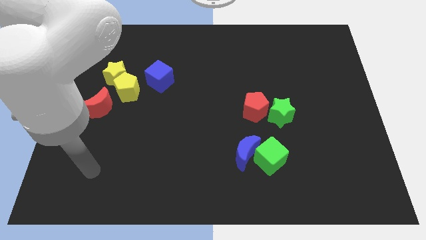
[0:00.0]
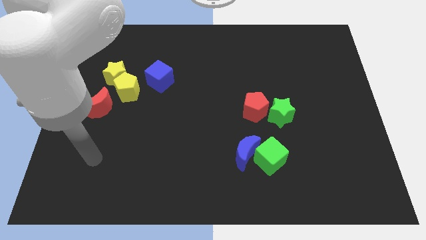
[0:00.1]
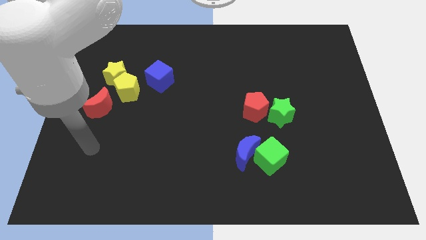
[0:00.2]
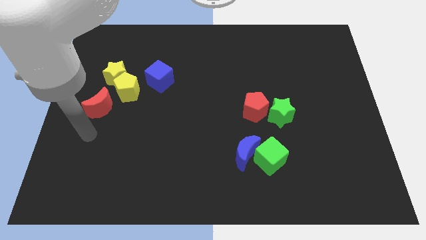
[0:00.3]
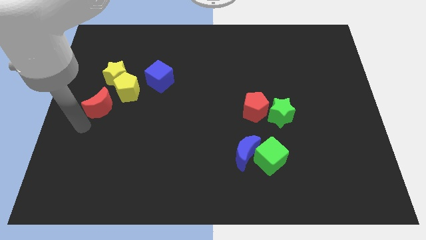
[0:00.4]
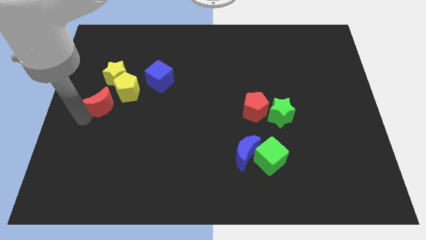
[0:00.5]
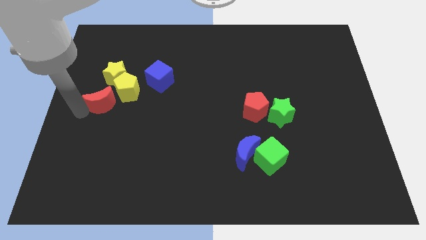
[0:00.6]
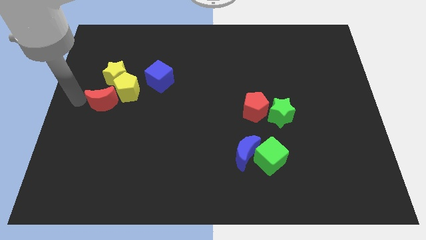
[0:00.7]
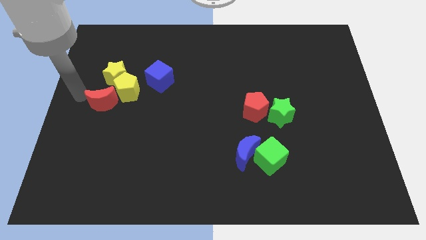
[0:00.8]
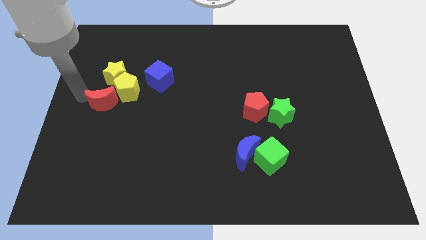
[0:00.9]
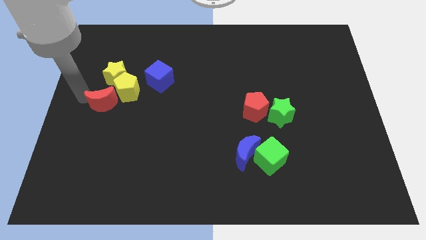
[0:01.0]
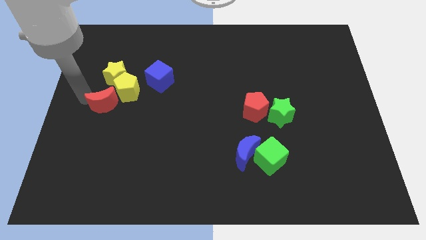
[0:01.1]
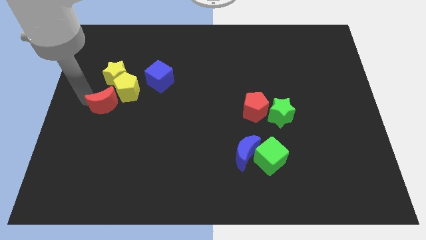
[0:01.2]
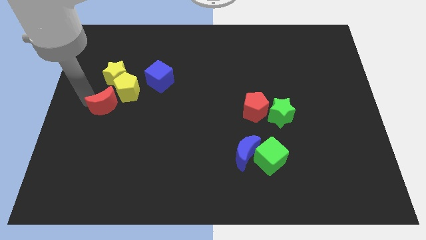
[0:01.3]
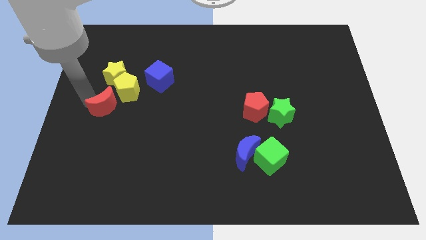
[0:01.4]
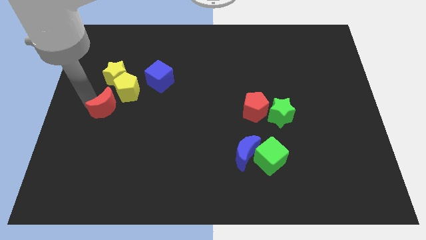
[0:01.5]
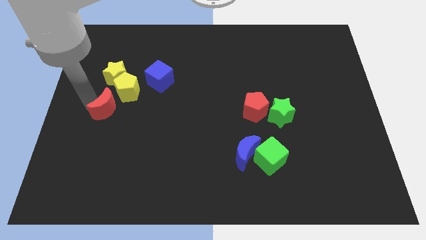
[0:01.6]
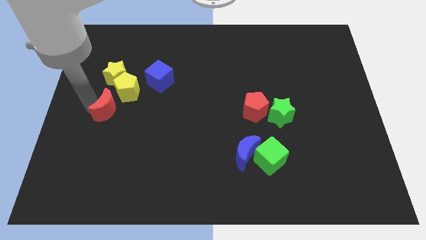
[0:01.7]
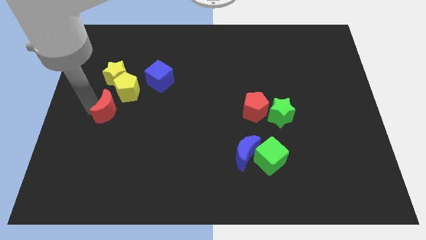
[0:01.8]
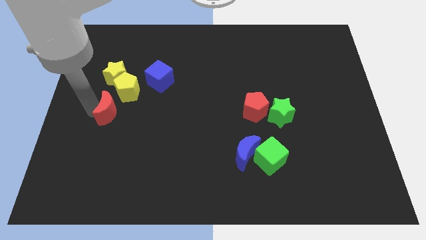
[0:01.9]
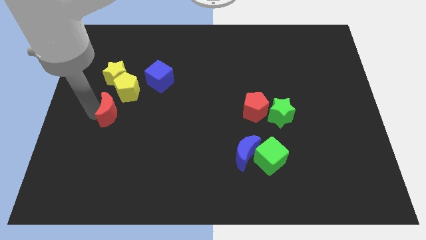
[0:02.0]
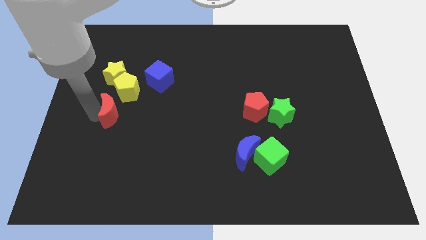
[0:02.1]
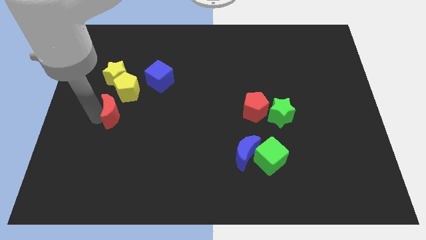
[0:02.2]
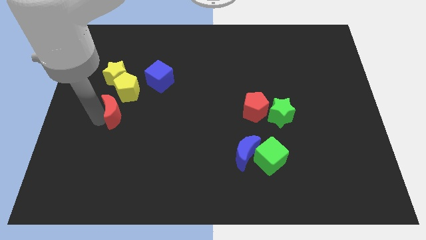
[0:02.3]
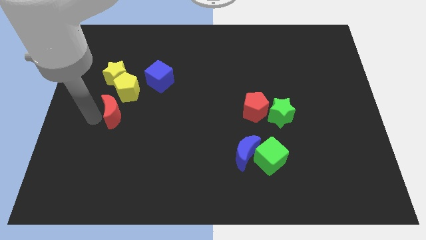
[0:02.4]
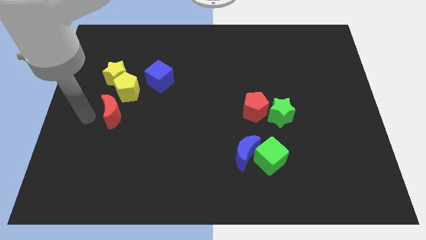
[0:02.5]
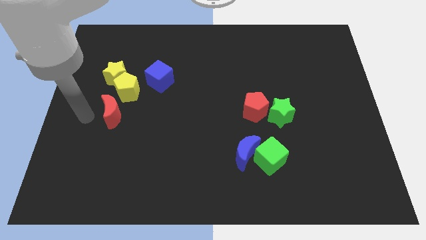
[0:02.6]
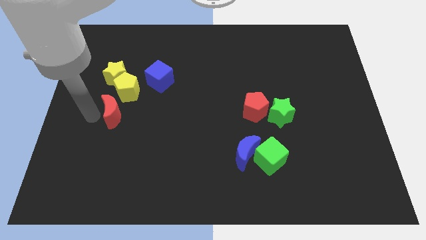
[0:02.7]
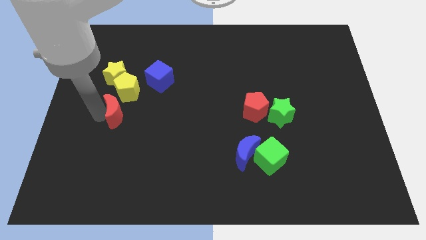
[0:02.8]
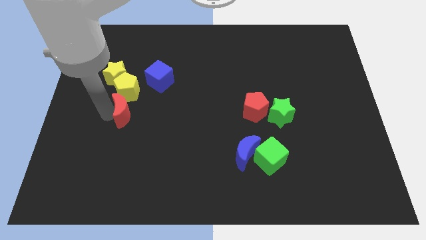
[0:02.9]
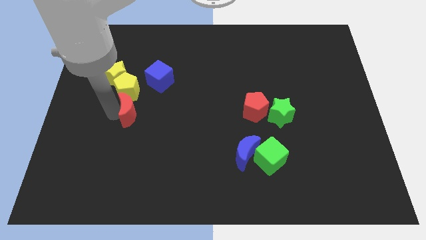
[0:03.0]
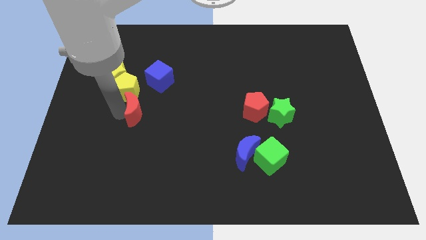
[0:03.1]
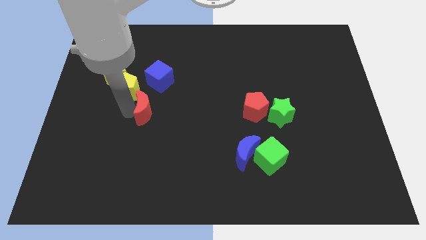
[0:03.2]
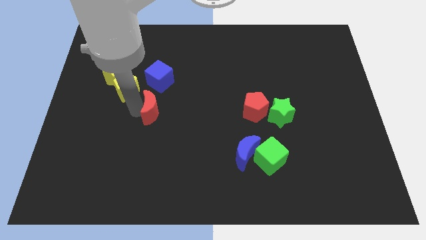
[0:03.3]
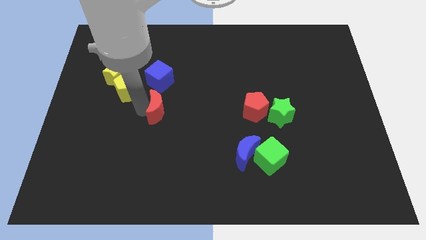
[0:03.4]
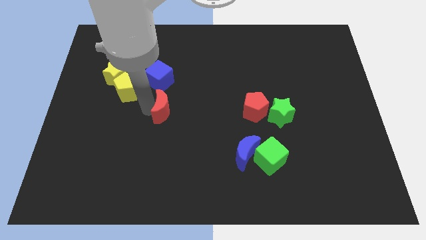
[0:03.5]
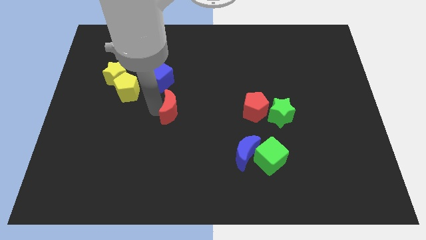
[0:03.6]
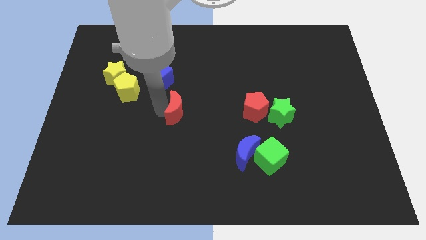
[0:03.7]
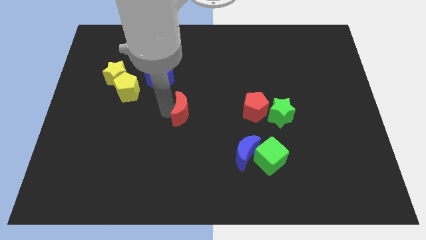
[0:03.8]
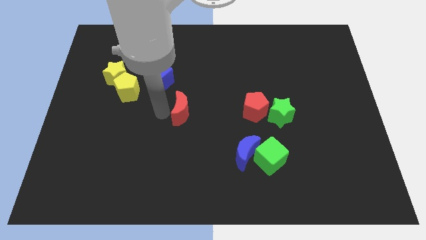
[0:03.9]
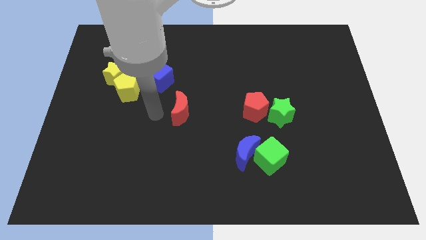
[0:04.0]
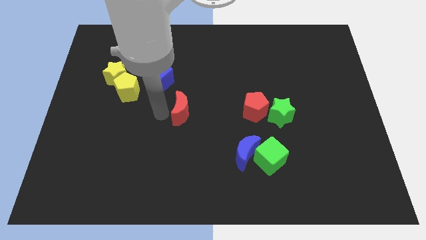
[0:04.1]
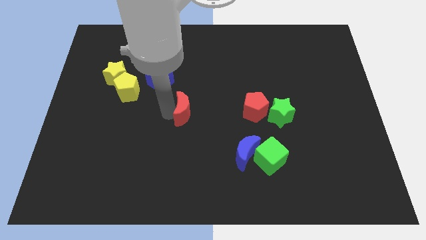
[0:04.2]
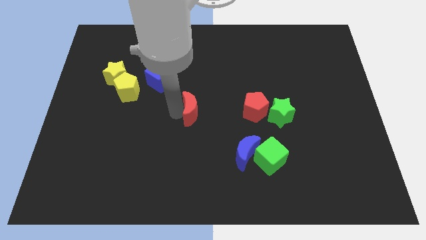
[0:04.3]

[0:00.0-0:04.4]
put the red moon to the left side of the red pentagon

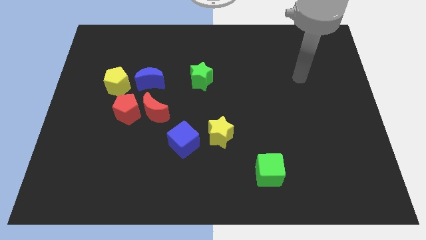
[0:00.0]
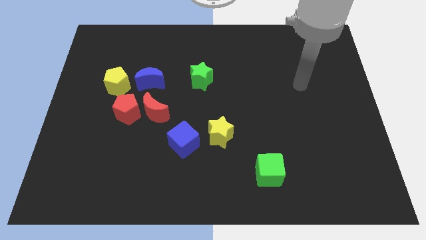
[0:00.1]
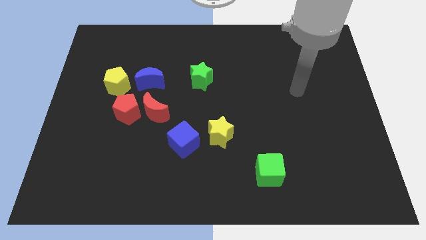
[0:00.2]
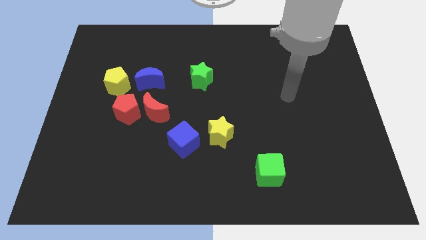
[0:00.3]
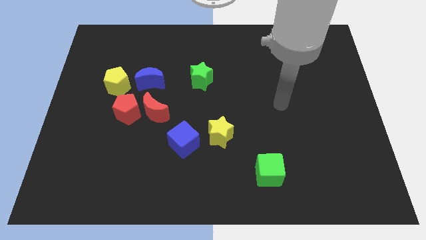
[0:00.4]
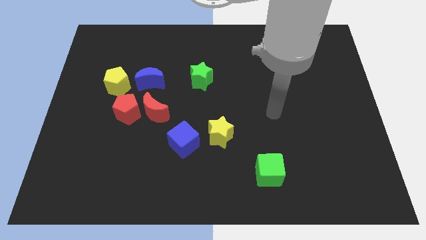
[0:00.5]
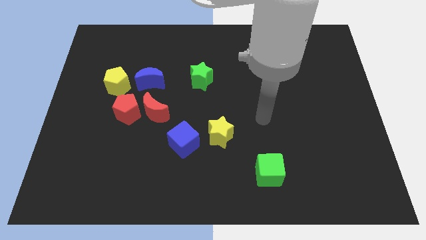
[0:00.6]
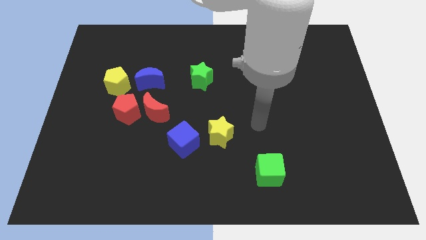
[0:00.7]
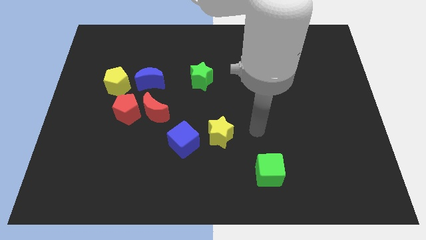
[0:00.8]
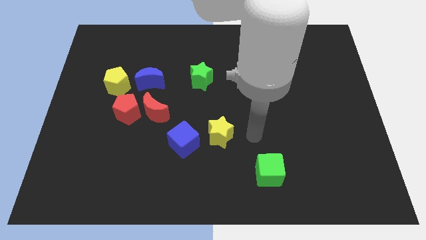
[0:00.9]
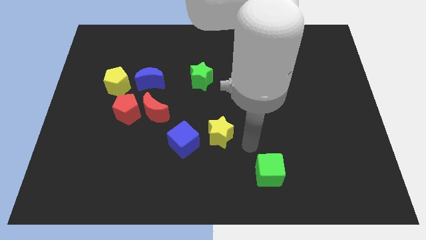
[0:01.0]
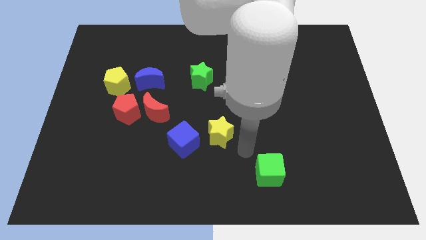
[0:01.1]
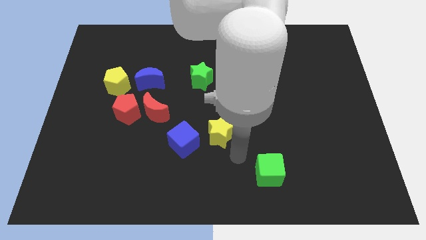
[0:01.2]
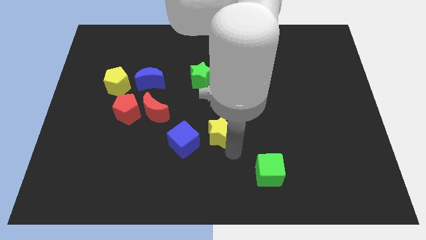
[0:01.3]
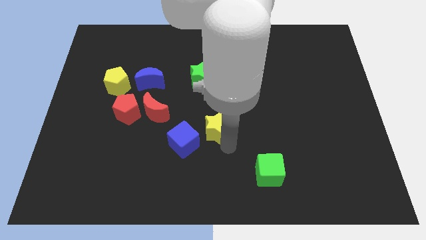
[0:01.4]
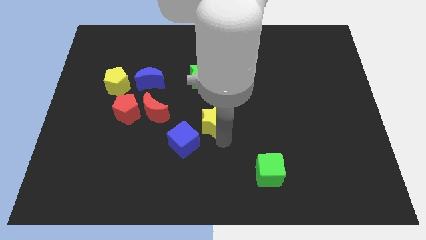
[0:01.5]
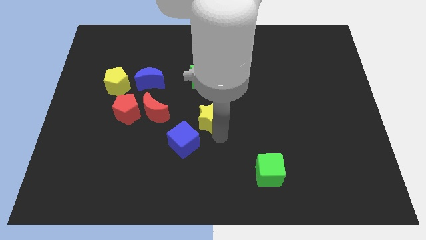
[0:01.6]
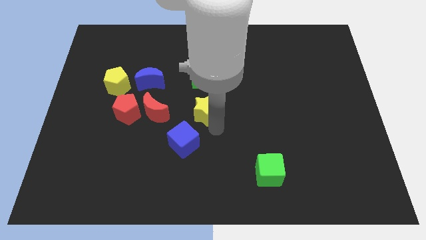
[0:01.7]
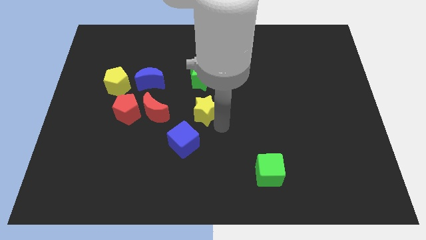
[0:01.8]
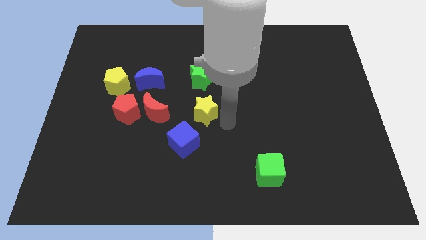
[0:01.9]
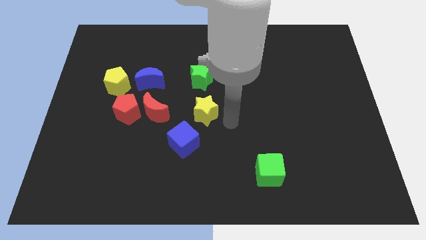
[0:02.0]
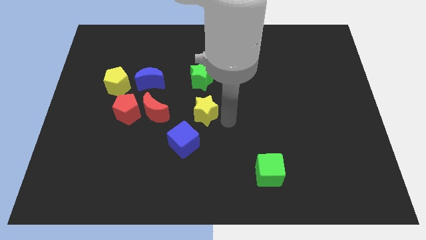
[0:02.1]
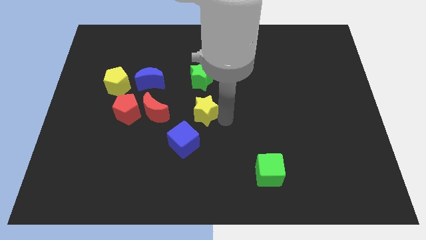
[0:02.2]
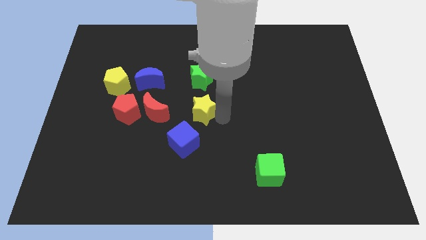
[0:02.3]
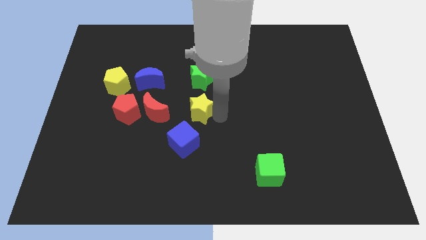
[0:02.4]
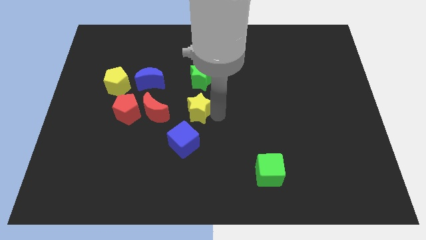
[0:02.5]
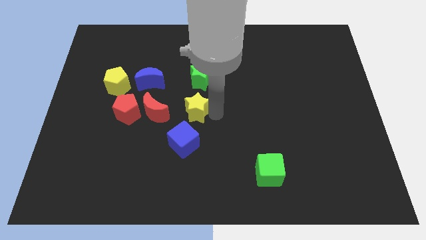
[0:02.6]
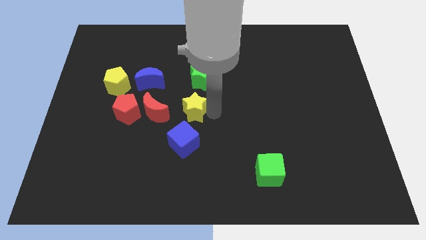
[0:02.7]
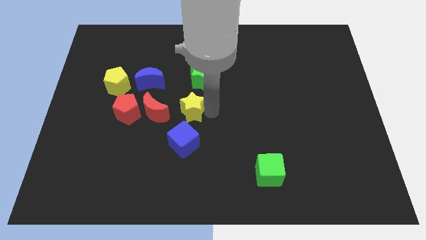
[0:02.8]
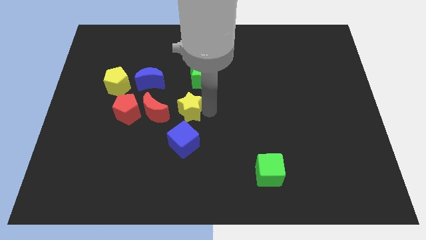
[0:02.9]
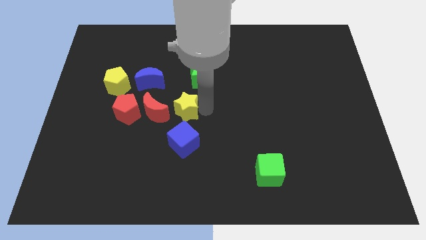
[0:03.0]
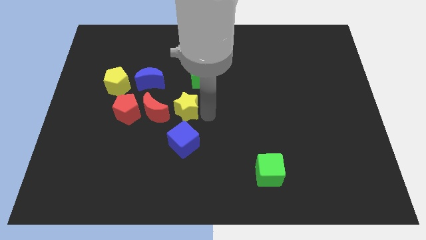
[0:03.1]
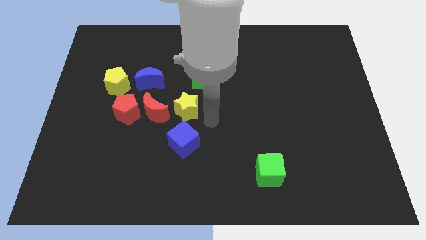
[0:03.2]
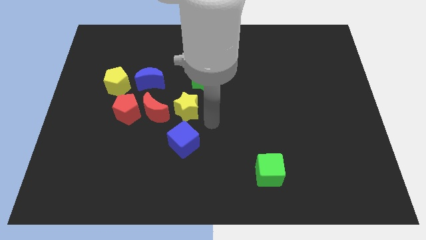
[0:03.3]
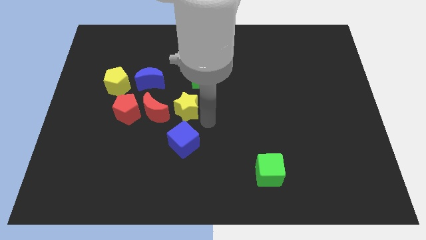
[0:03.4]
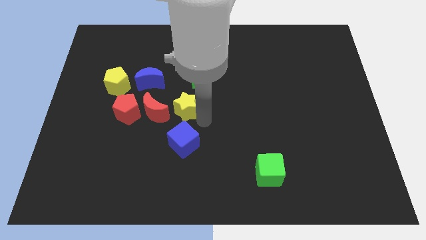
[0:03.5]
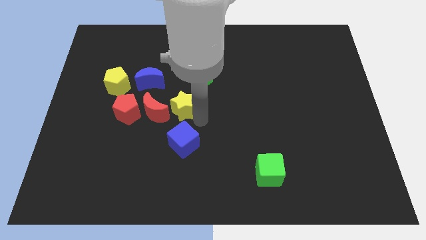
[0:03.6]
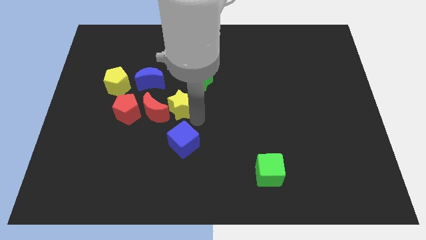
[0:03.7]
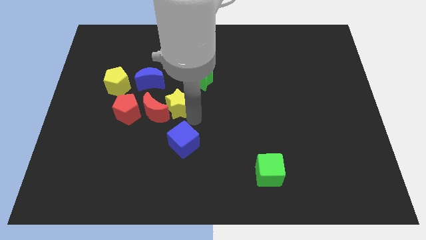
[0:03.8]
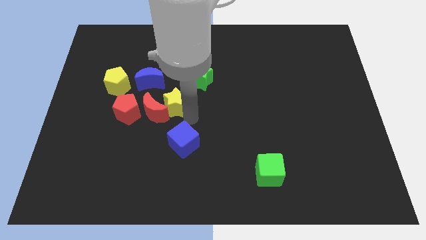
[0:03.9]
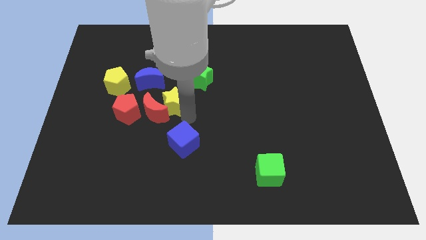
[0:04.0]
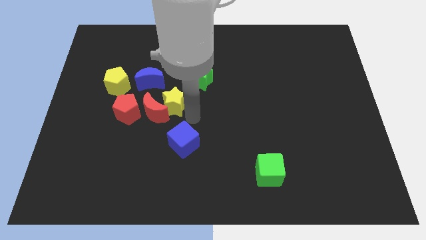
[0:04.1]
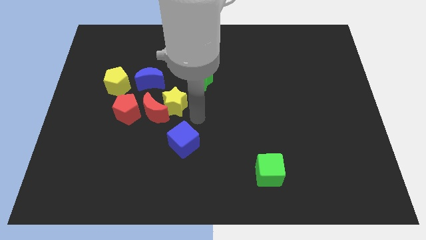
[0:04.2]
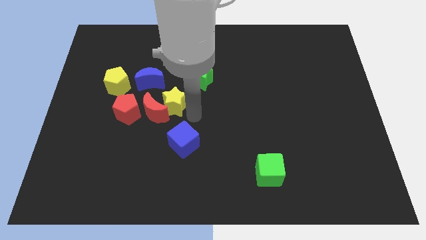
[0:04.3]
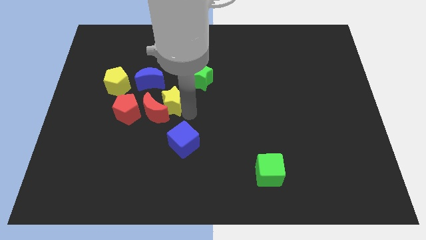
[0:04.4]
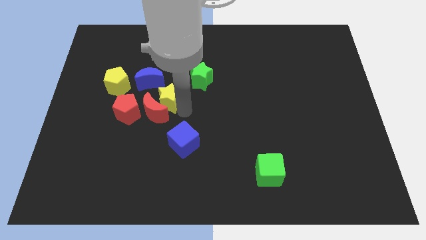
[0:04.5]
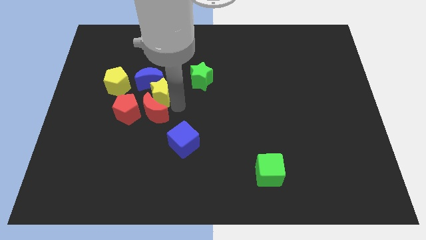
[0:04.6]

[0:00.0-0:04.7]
put the yellow star diagonally up and to the left of the red moon
